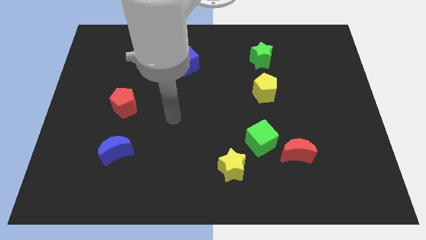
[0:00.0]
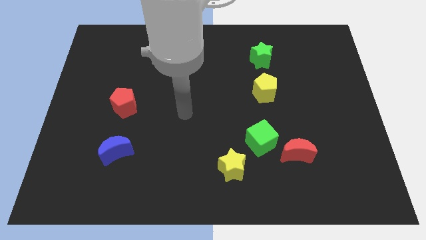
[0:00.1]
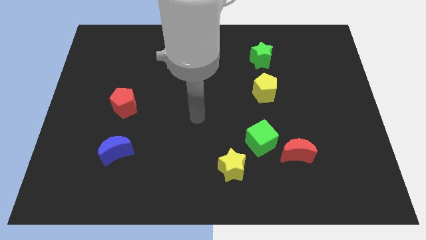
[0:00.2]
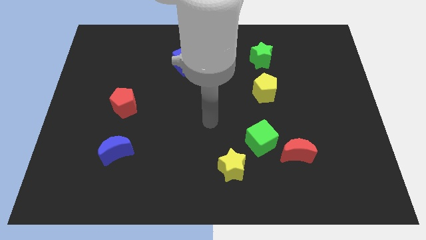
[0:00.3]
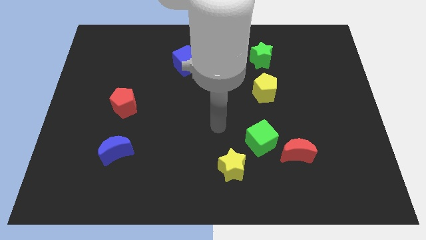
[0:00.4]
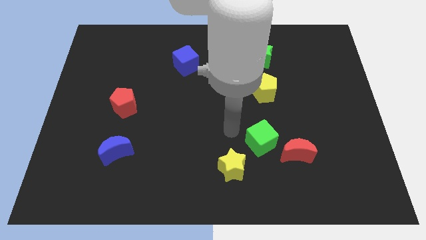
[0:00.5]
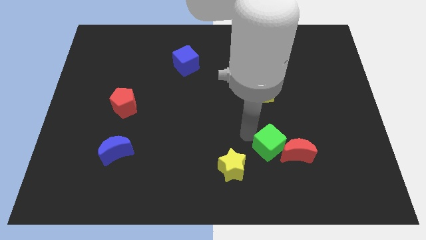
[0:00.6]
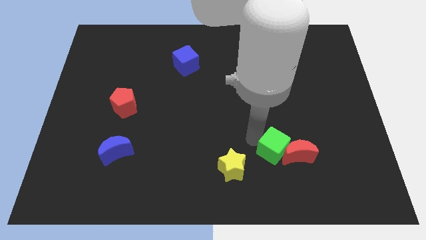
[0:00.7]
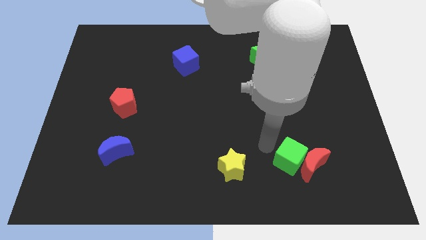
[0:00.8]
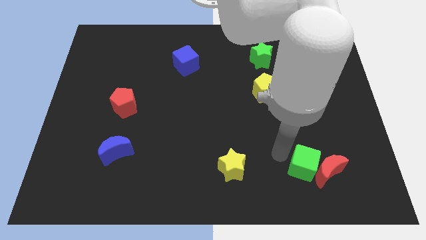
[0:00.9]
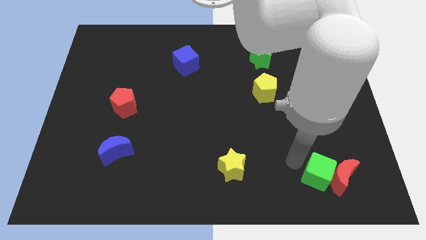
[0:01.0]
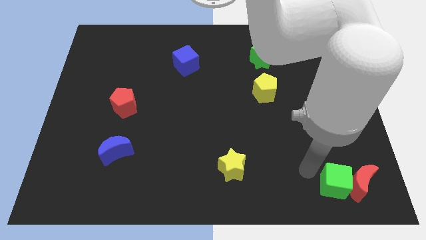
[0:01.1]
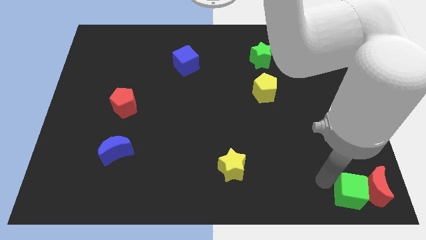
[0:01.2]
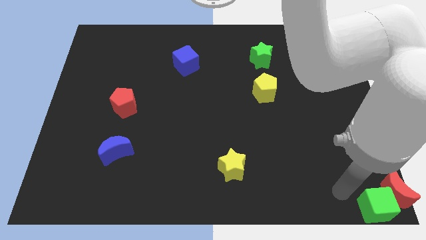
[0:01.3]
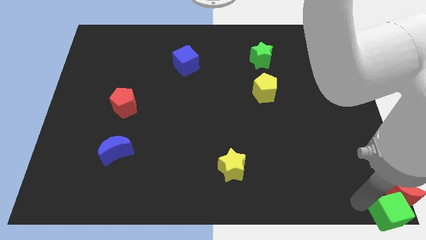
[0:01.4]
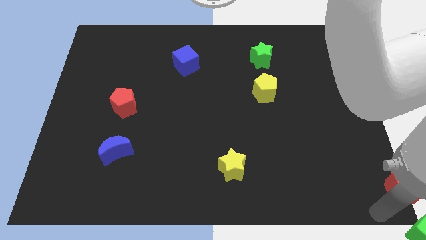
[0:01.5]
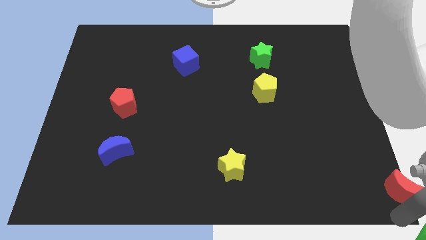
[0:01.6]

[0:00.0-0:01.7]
move the red moon away from the green cube

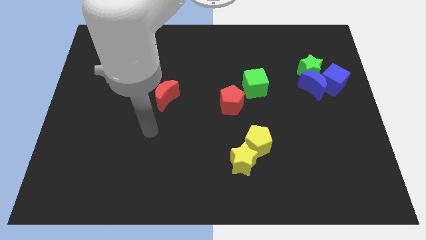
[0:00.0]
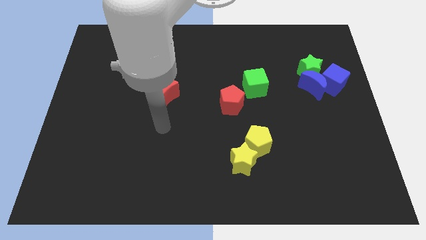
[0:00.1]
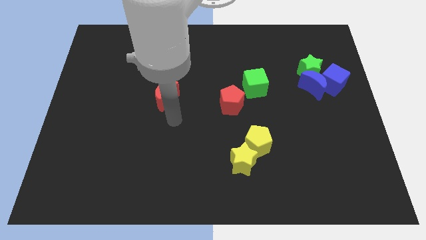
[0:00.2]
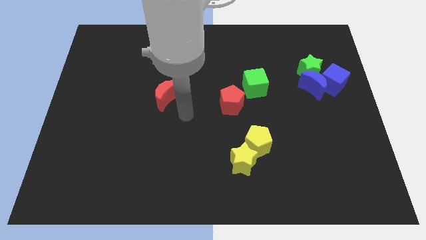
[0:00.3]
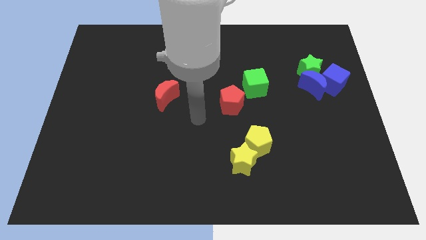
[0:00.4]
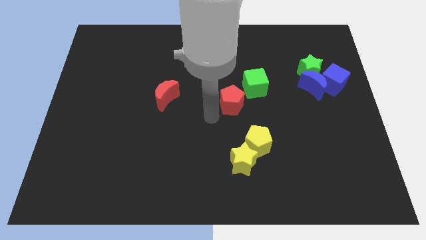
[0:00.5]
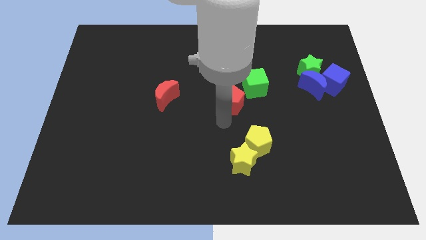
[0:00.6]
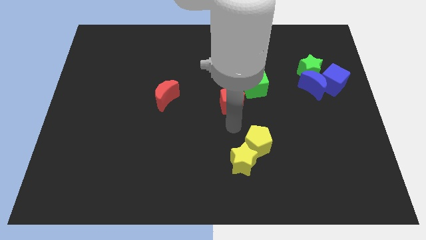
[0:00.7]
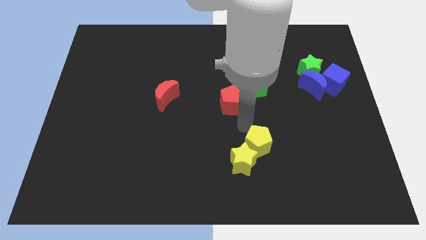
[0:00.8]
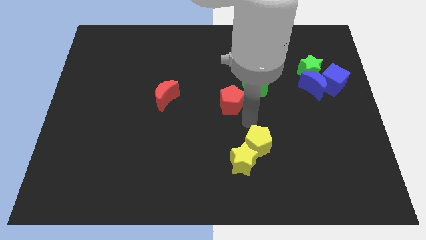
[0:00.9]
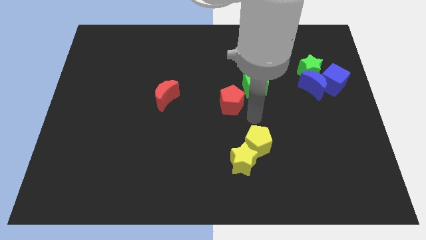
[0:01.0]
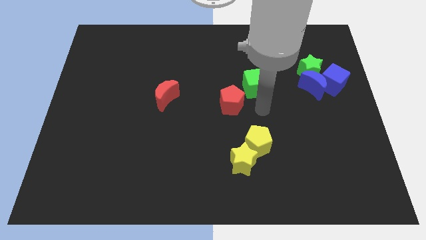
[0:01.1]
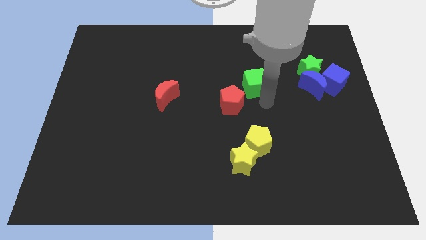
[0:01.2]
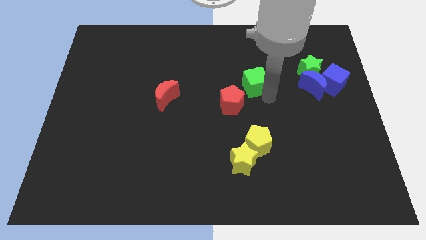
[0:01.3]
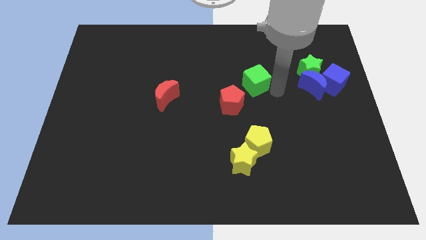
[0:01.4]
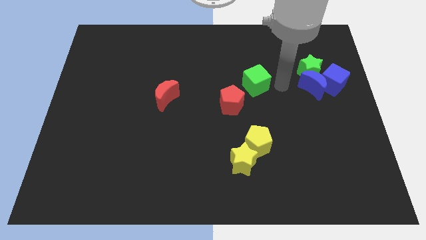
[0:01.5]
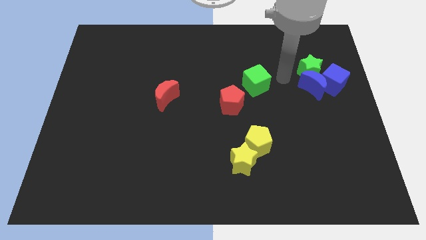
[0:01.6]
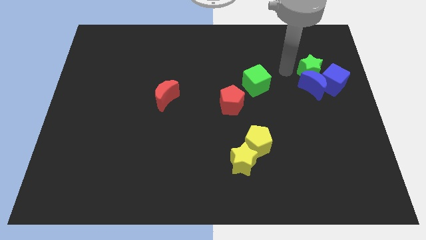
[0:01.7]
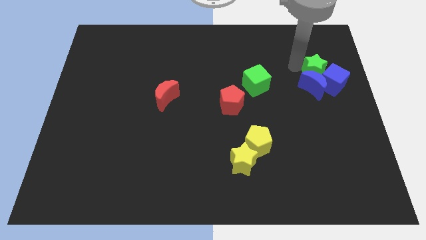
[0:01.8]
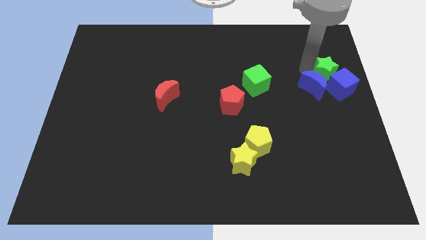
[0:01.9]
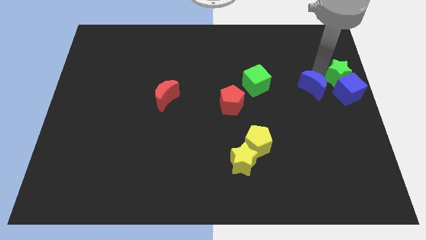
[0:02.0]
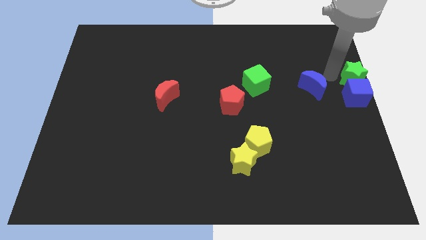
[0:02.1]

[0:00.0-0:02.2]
pull the blue moon apart from the green star and blue cube

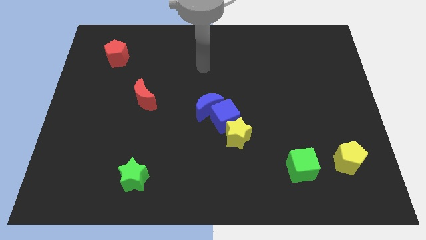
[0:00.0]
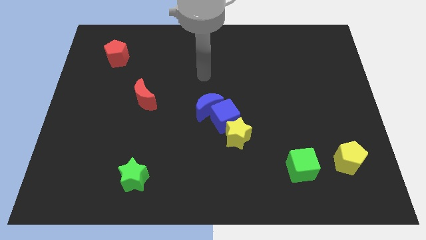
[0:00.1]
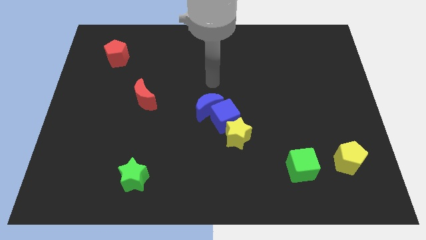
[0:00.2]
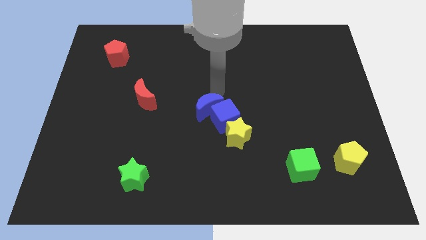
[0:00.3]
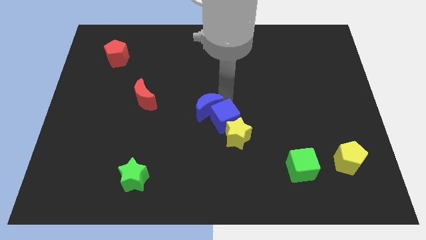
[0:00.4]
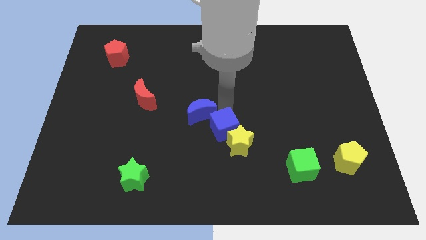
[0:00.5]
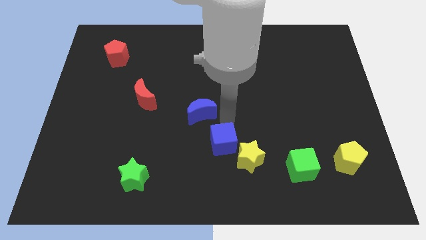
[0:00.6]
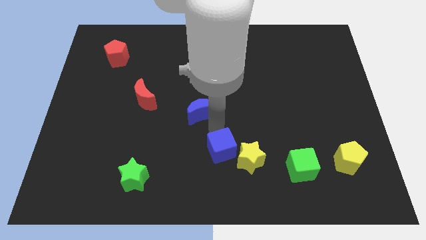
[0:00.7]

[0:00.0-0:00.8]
pull the blue moon apart from the blue cube

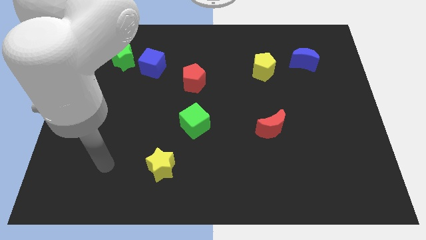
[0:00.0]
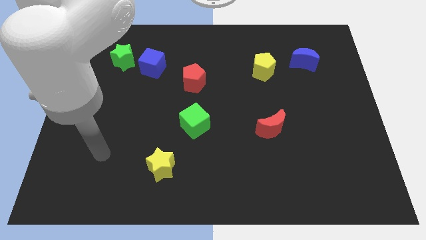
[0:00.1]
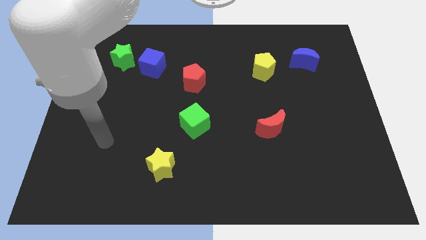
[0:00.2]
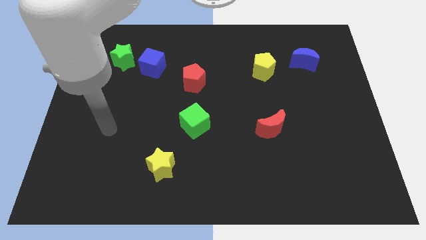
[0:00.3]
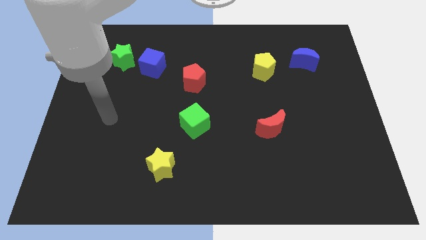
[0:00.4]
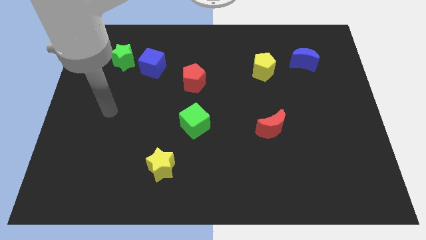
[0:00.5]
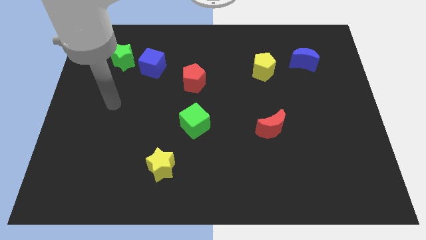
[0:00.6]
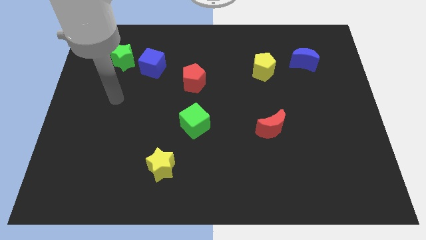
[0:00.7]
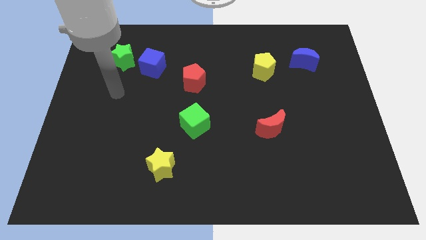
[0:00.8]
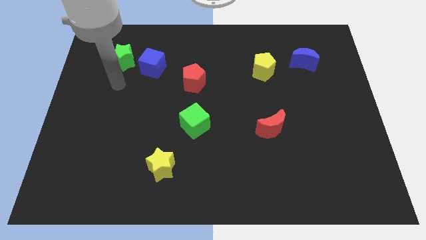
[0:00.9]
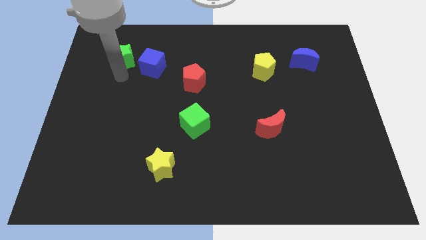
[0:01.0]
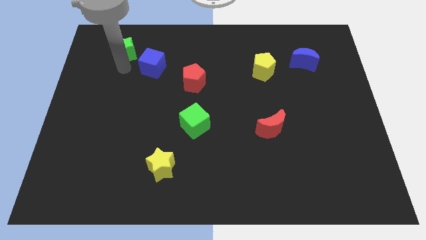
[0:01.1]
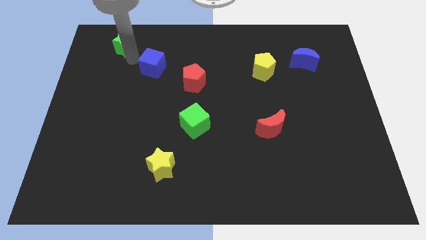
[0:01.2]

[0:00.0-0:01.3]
separate the blue cube from the green star

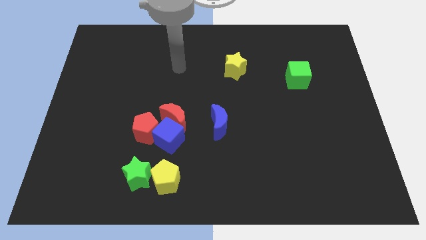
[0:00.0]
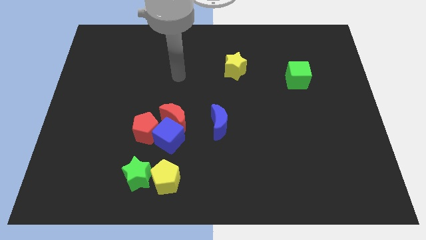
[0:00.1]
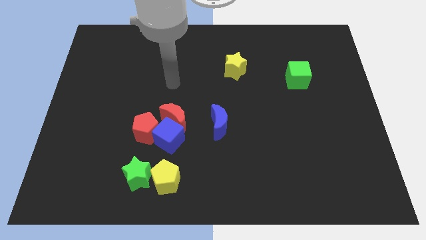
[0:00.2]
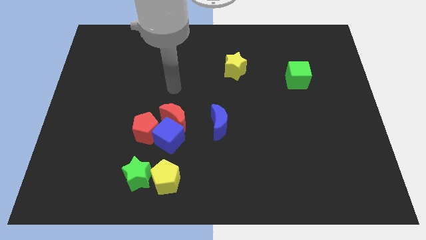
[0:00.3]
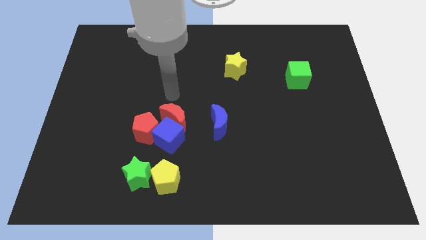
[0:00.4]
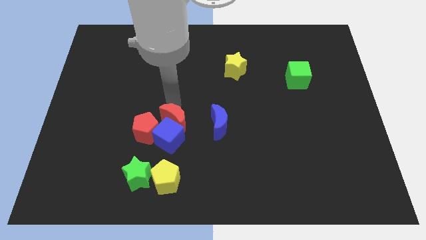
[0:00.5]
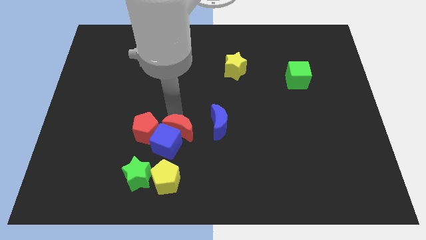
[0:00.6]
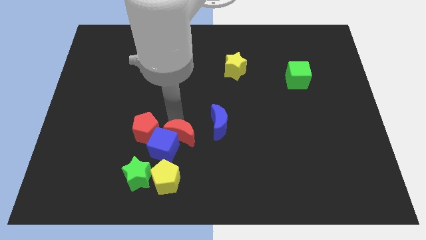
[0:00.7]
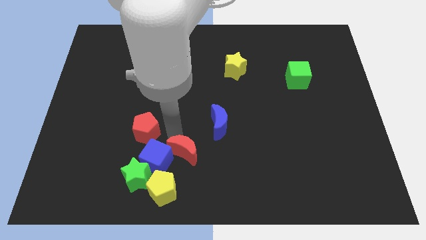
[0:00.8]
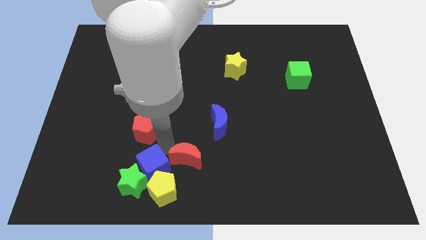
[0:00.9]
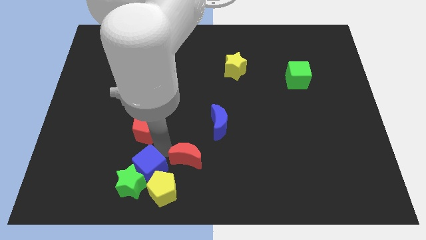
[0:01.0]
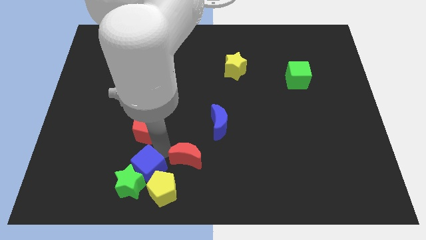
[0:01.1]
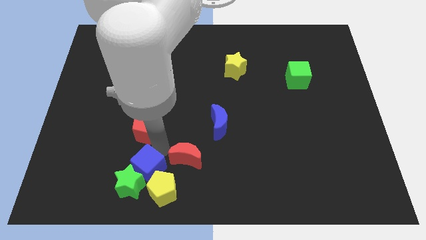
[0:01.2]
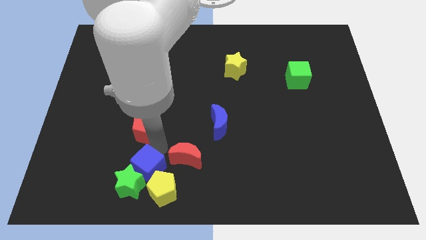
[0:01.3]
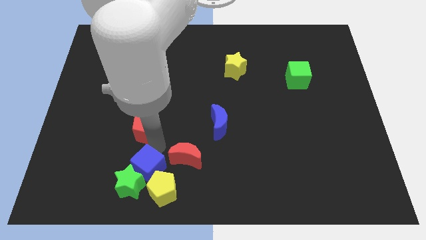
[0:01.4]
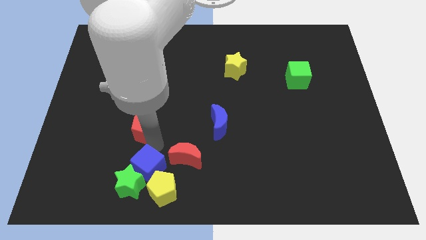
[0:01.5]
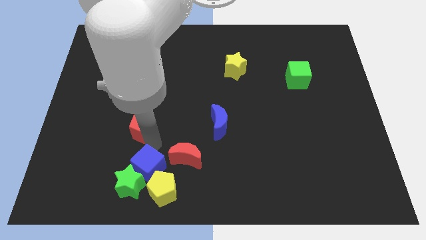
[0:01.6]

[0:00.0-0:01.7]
separate the red pentagon from the blue cube and red moon

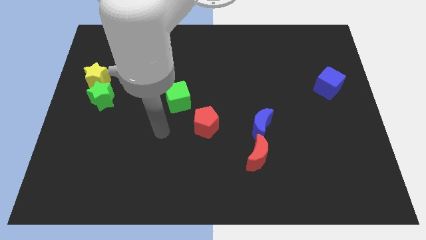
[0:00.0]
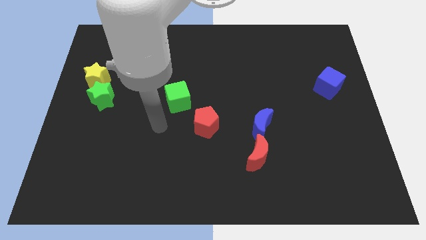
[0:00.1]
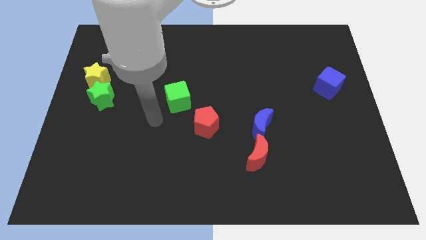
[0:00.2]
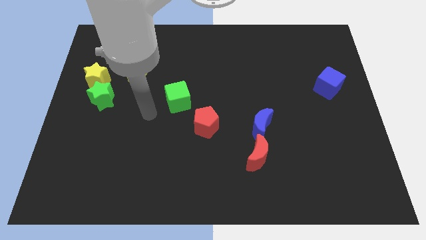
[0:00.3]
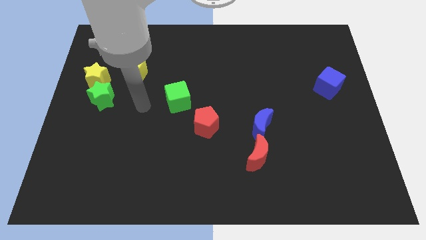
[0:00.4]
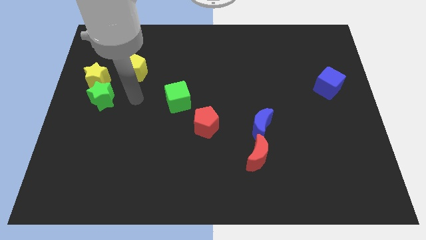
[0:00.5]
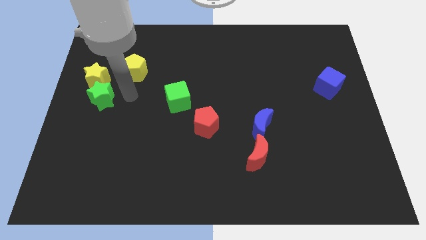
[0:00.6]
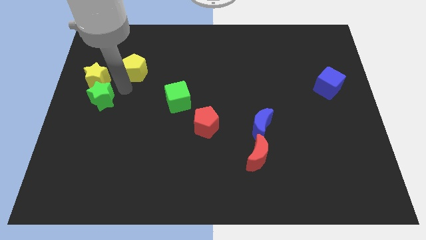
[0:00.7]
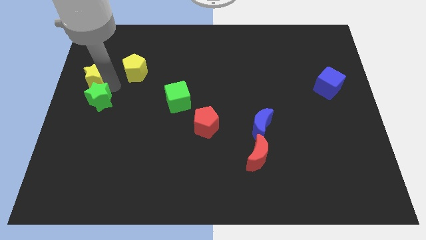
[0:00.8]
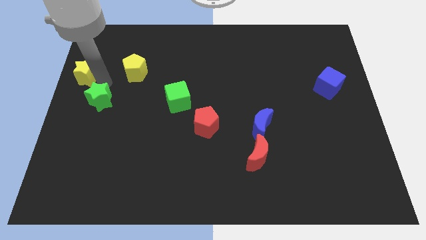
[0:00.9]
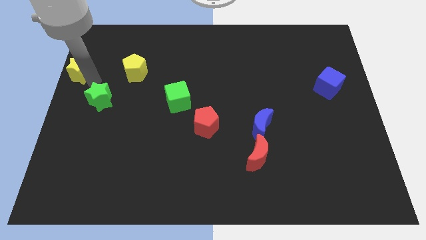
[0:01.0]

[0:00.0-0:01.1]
separate the green star from the yellow star

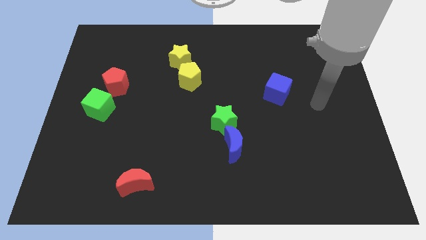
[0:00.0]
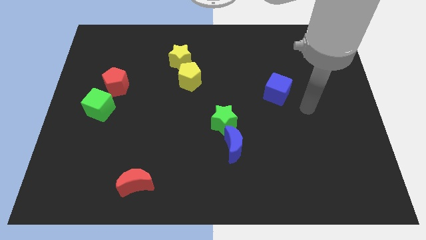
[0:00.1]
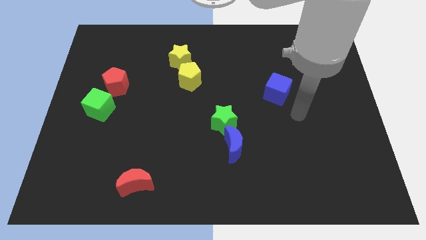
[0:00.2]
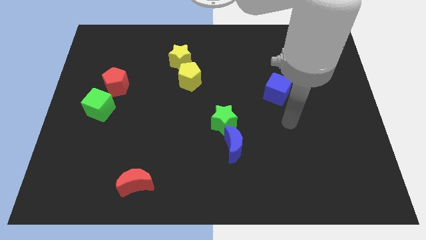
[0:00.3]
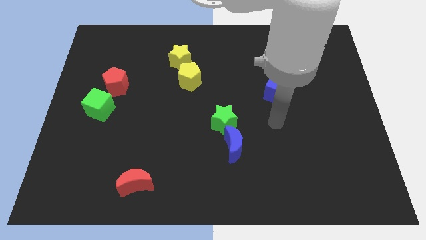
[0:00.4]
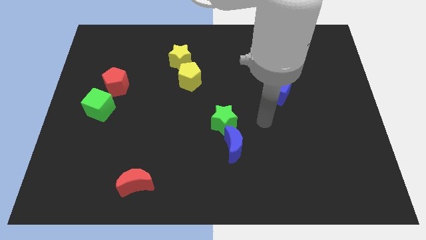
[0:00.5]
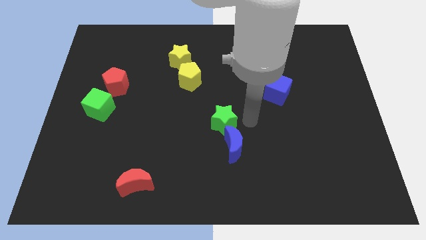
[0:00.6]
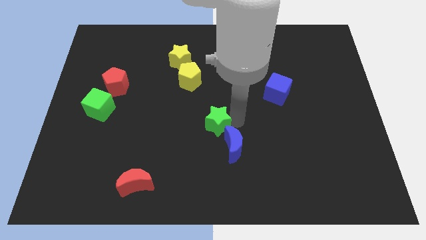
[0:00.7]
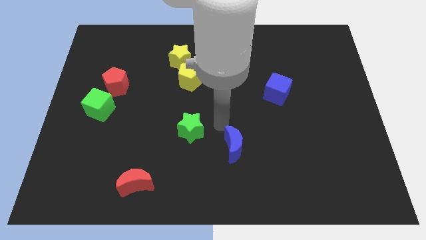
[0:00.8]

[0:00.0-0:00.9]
separate the blue moon from the green star
